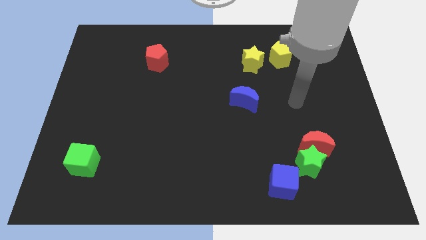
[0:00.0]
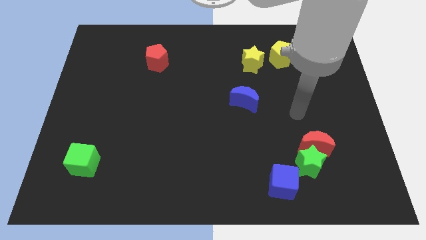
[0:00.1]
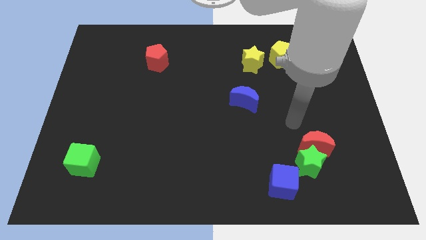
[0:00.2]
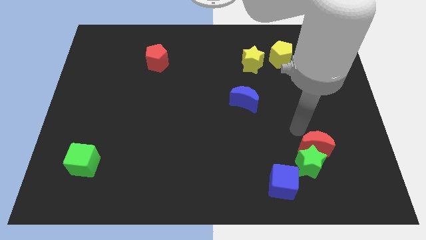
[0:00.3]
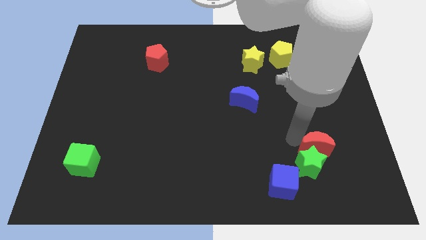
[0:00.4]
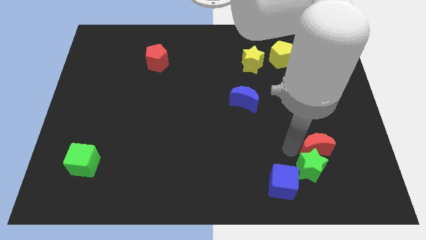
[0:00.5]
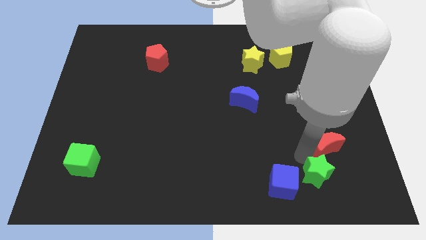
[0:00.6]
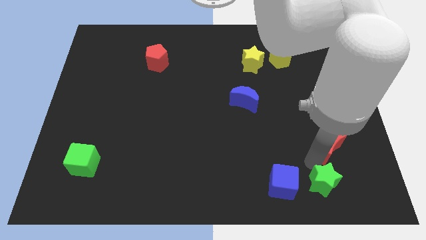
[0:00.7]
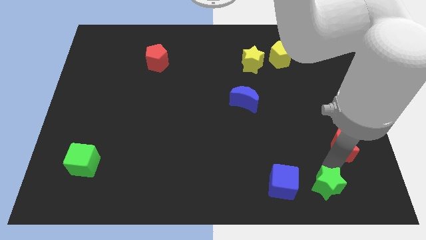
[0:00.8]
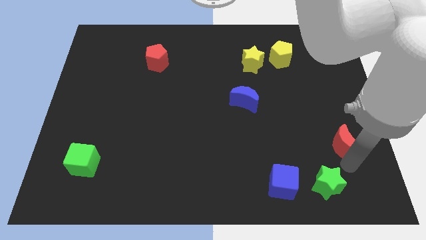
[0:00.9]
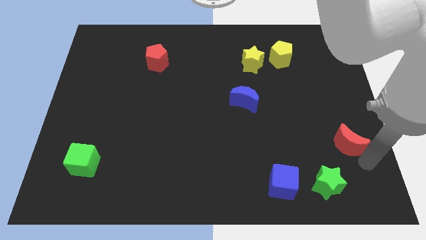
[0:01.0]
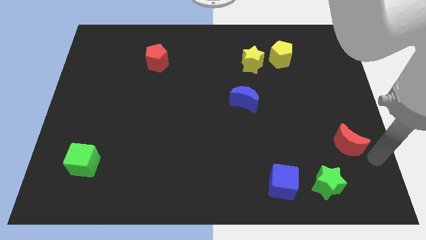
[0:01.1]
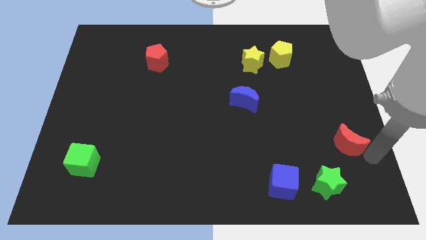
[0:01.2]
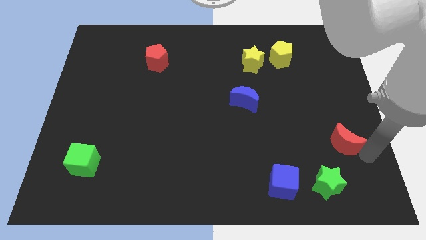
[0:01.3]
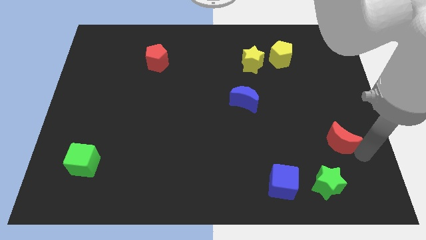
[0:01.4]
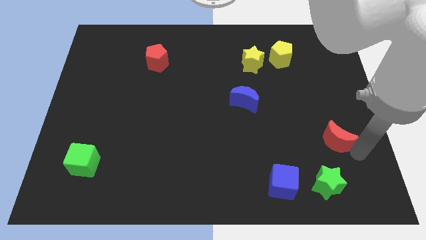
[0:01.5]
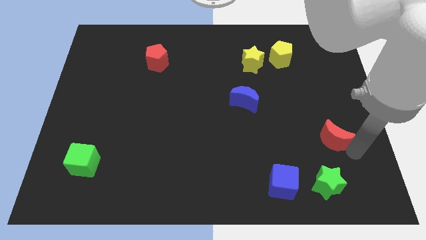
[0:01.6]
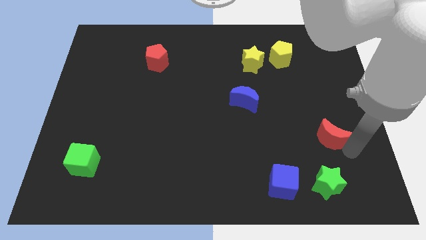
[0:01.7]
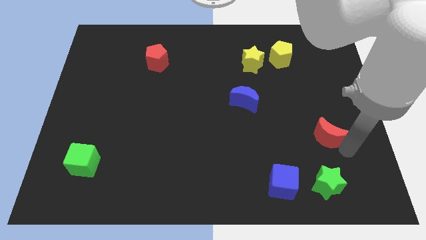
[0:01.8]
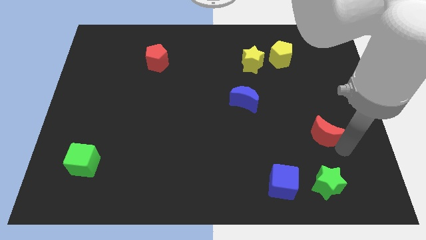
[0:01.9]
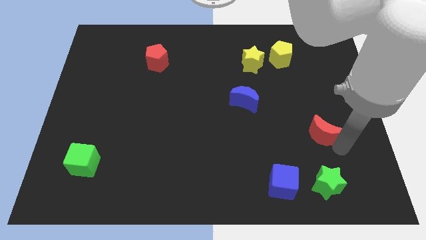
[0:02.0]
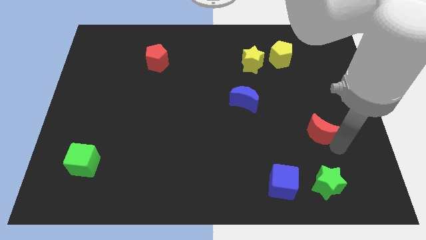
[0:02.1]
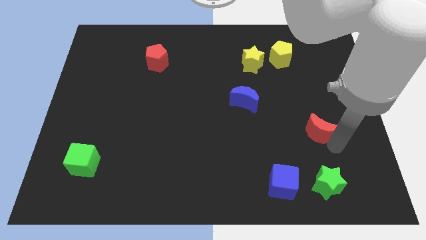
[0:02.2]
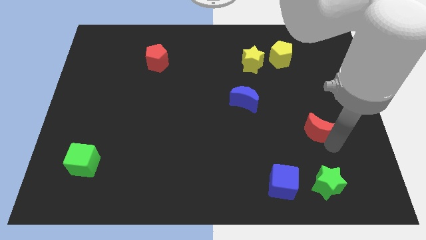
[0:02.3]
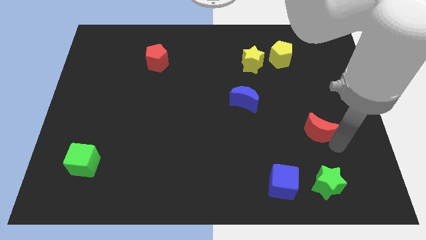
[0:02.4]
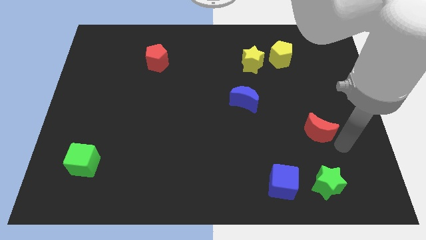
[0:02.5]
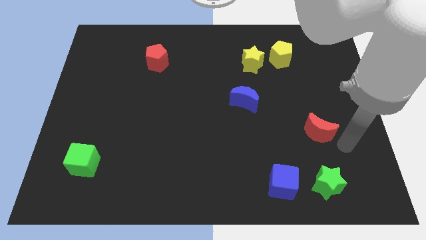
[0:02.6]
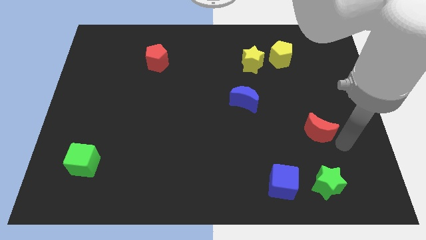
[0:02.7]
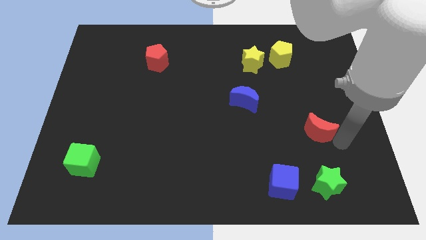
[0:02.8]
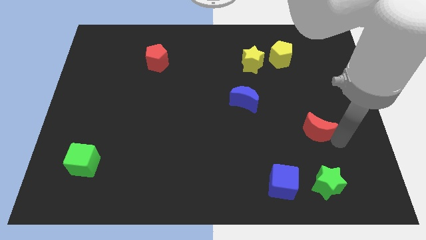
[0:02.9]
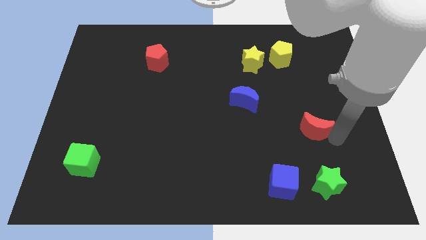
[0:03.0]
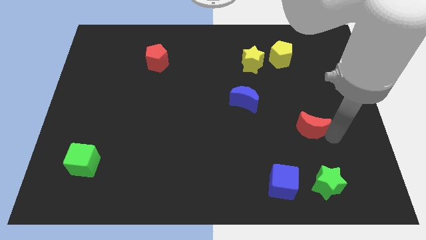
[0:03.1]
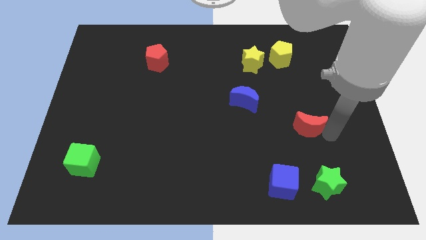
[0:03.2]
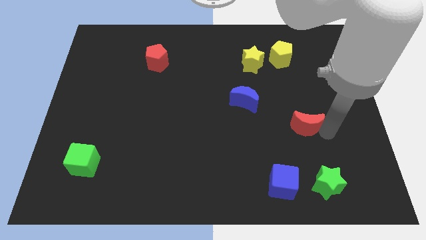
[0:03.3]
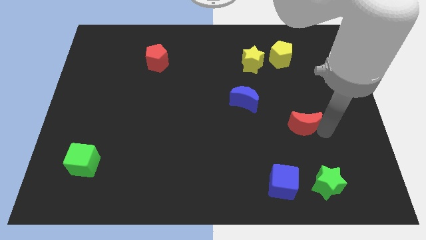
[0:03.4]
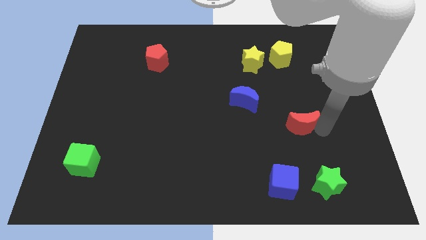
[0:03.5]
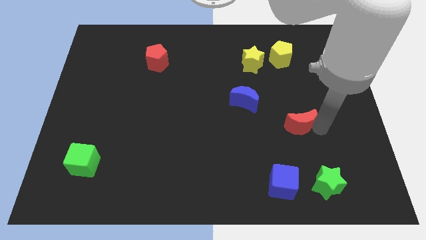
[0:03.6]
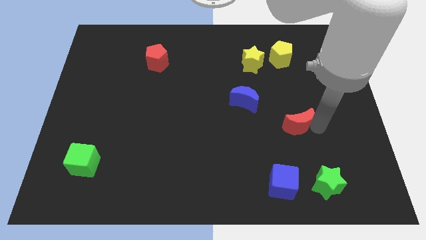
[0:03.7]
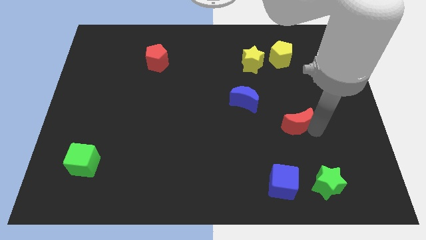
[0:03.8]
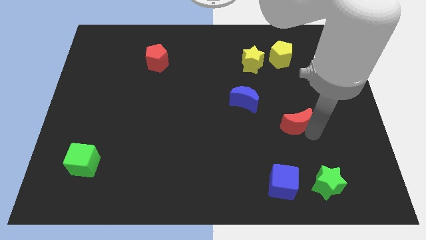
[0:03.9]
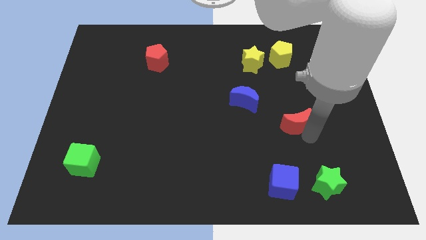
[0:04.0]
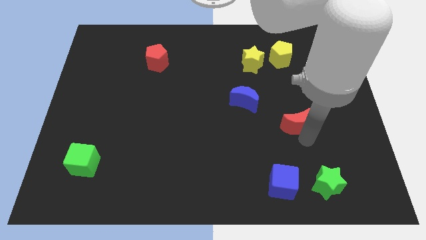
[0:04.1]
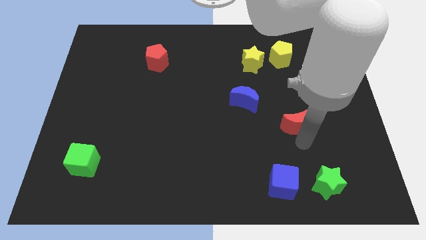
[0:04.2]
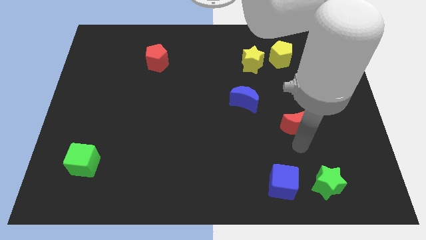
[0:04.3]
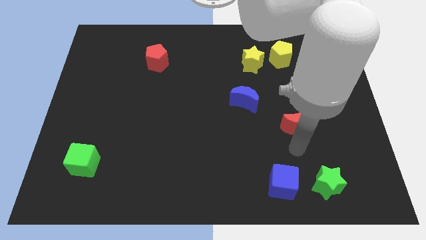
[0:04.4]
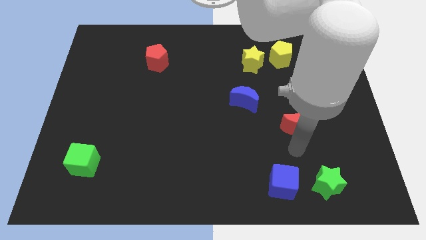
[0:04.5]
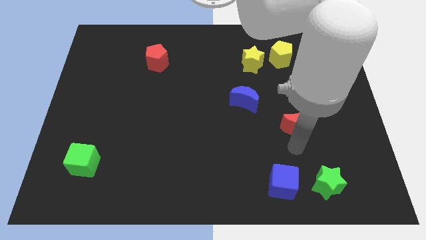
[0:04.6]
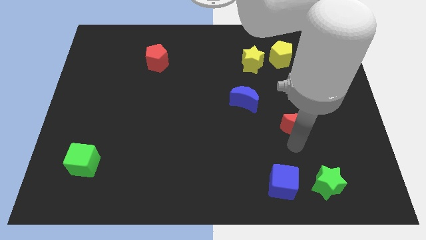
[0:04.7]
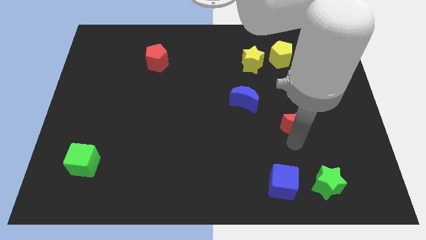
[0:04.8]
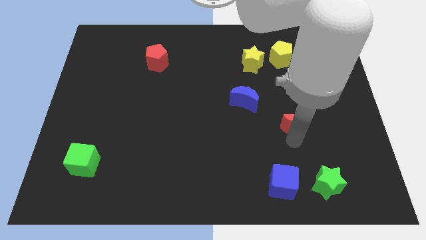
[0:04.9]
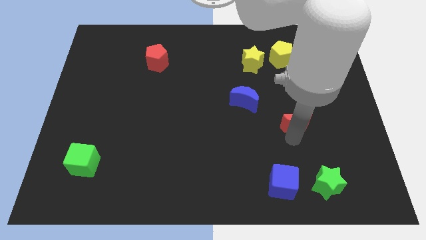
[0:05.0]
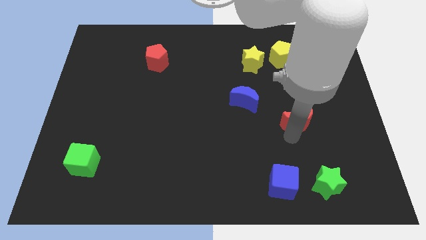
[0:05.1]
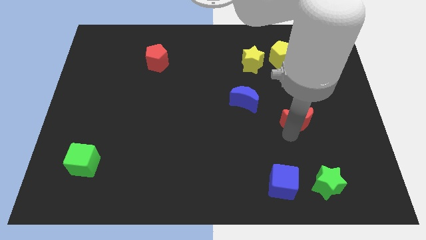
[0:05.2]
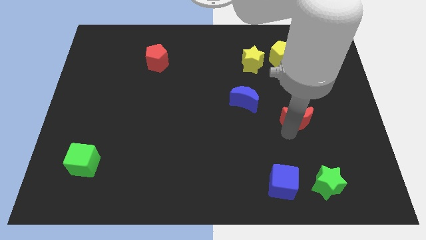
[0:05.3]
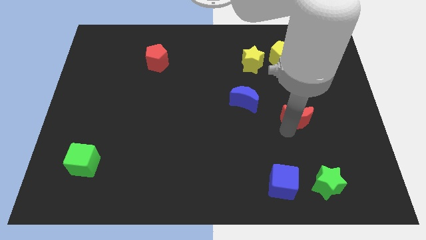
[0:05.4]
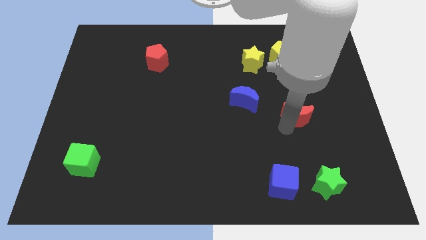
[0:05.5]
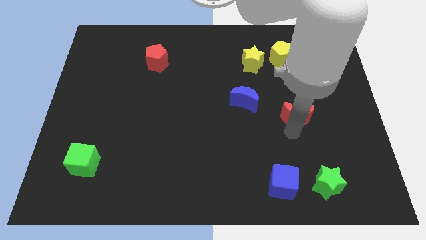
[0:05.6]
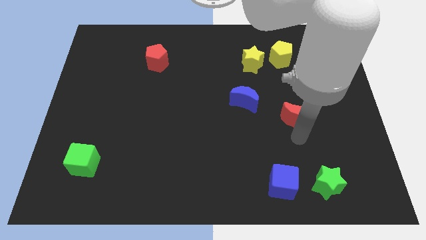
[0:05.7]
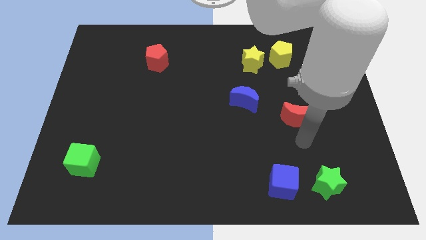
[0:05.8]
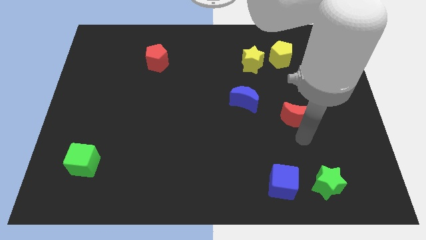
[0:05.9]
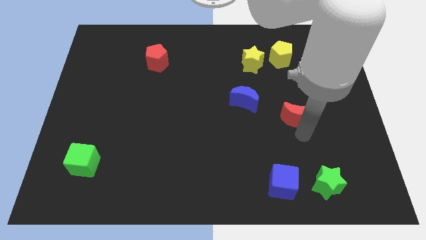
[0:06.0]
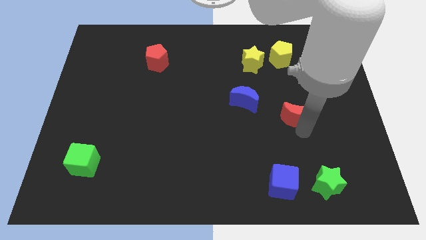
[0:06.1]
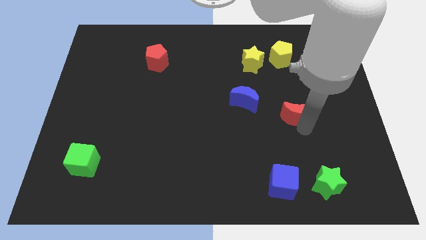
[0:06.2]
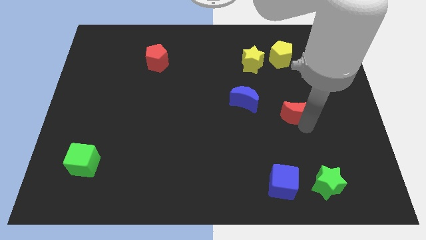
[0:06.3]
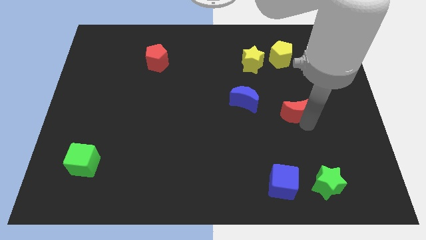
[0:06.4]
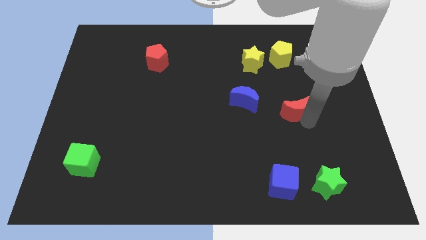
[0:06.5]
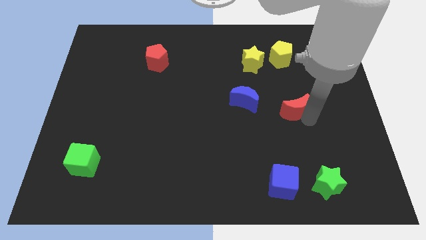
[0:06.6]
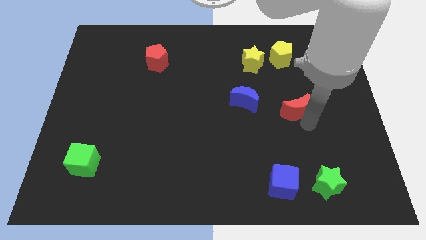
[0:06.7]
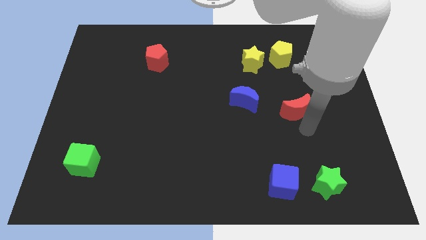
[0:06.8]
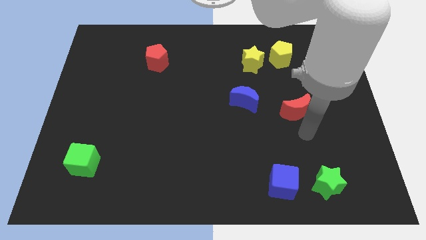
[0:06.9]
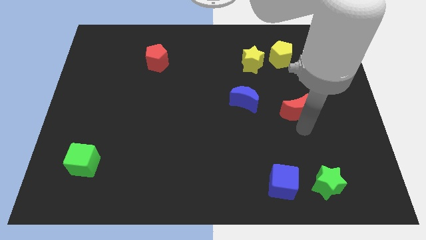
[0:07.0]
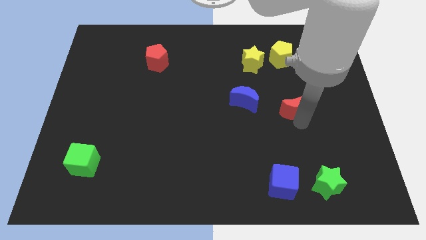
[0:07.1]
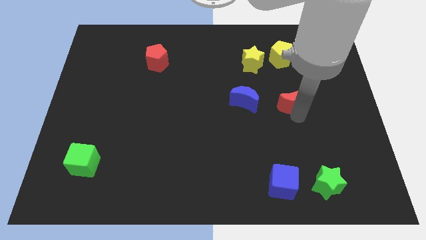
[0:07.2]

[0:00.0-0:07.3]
move the red moon below the yellow pentagon
